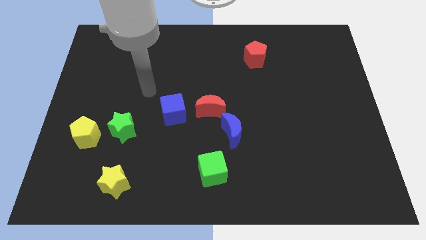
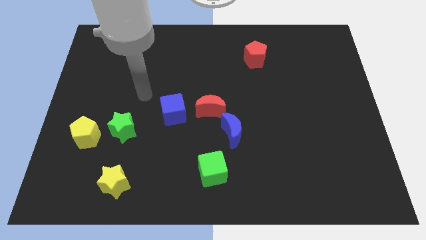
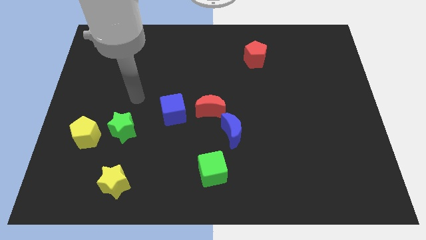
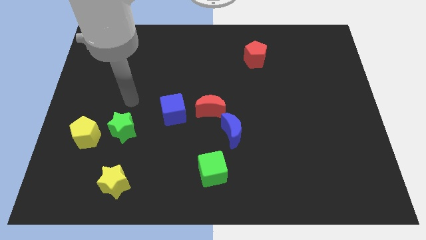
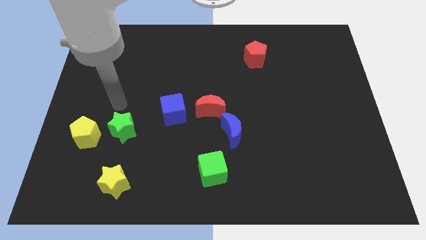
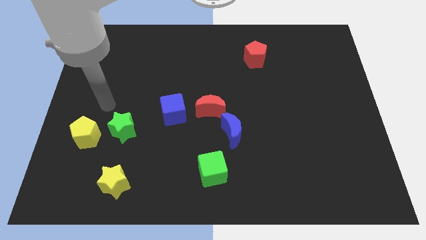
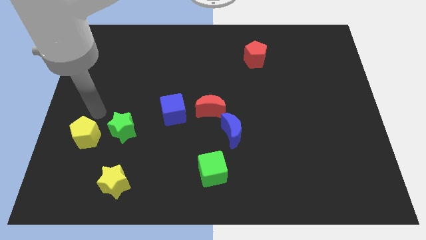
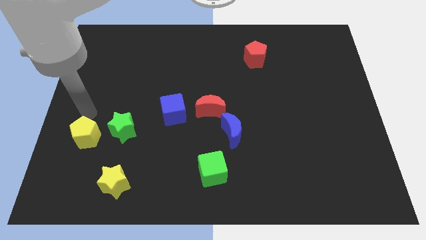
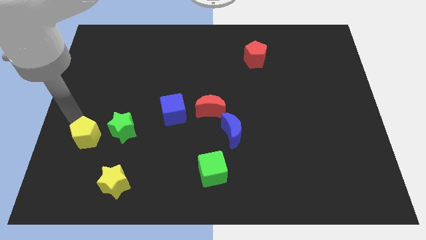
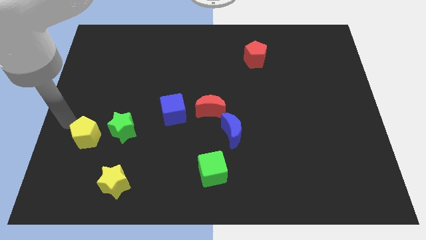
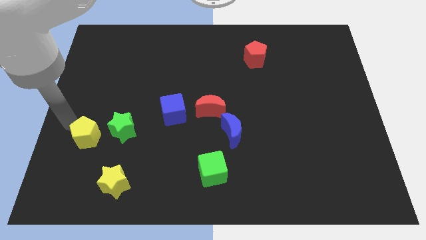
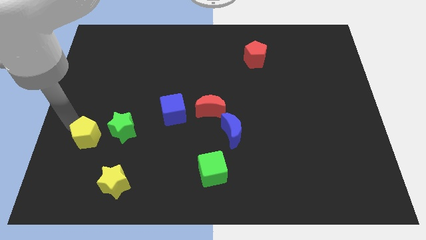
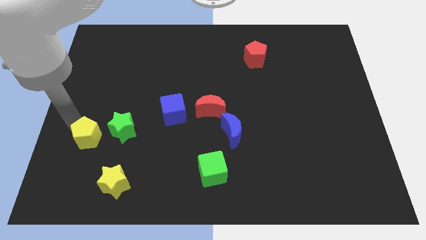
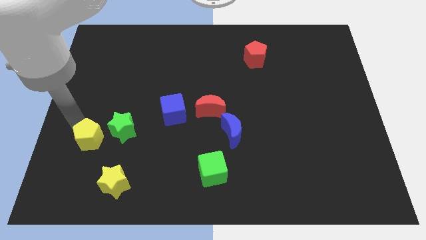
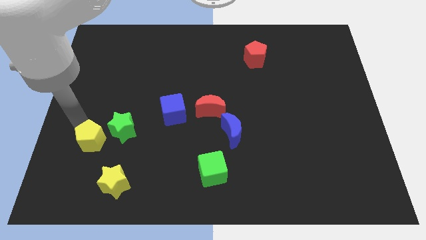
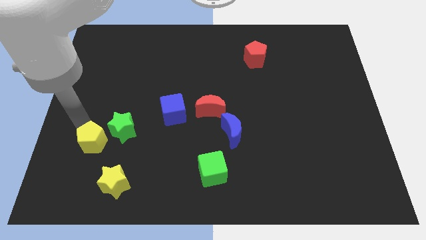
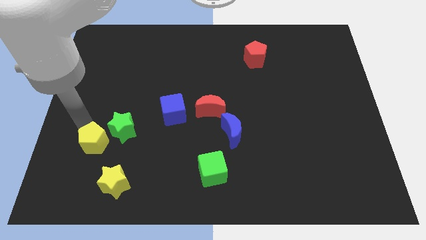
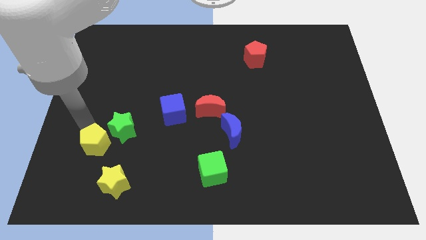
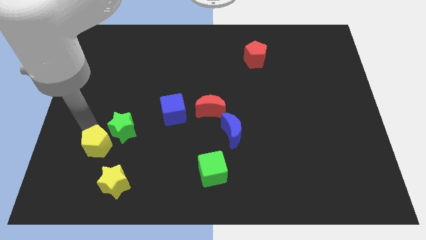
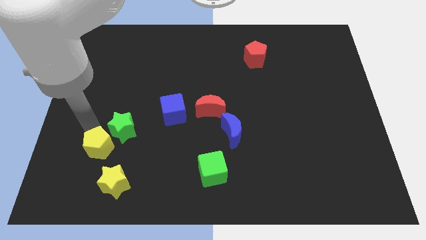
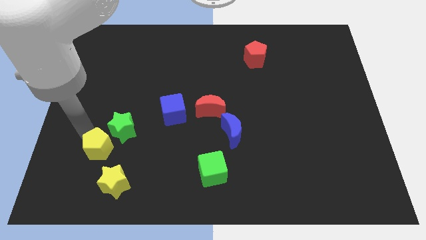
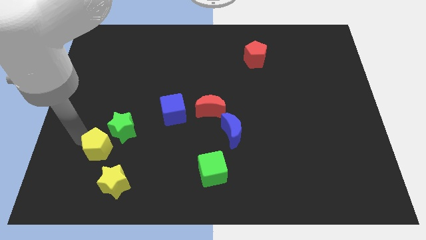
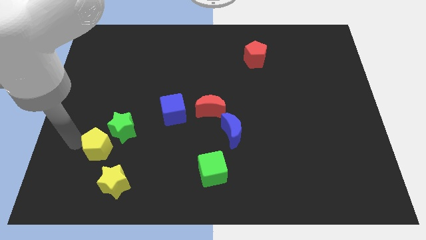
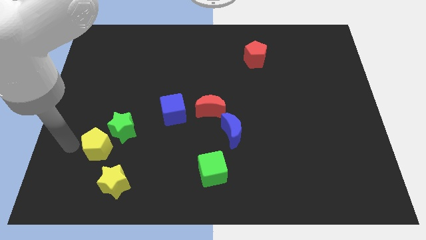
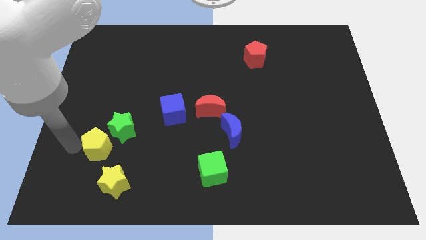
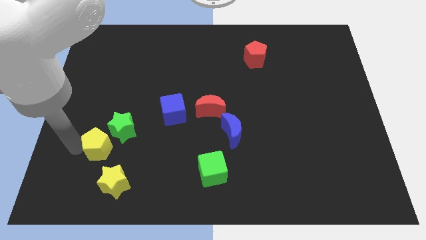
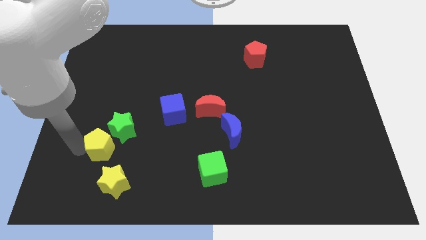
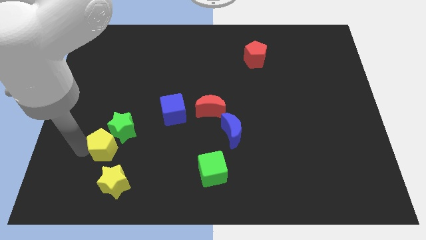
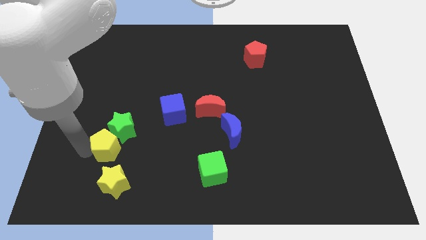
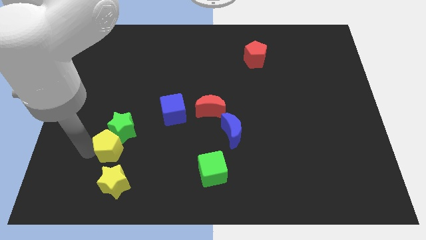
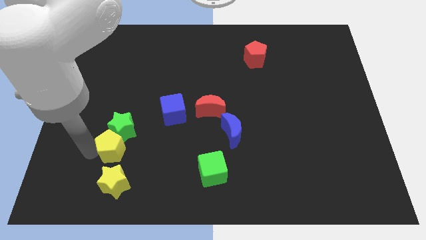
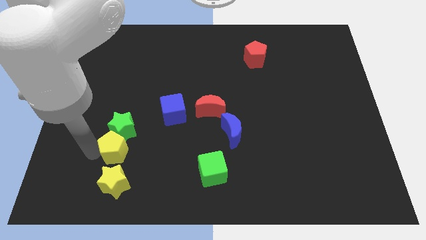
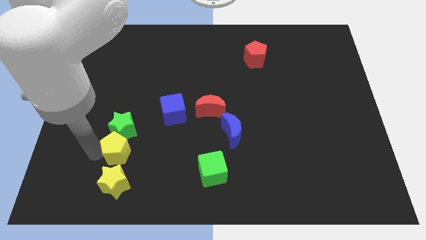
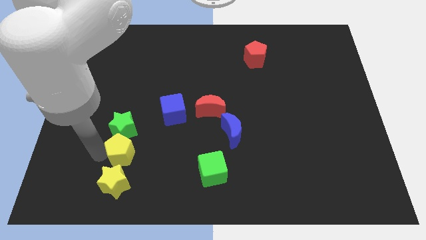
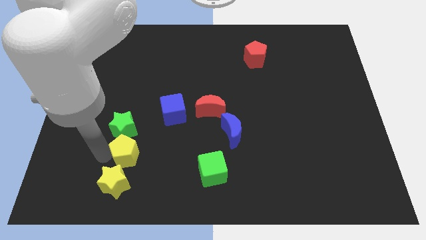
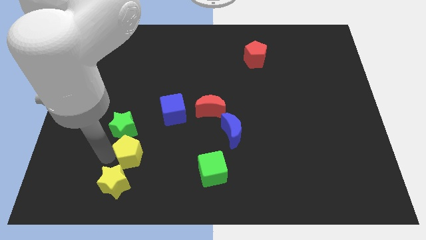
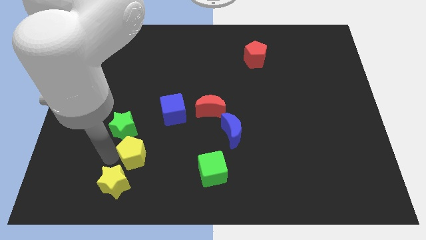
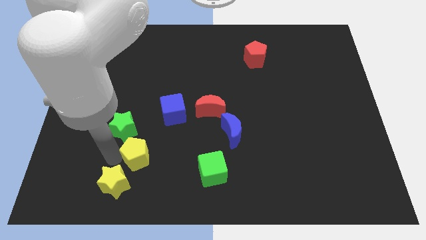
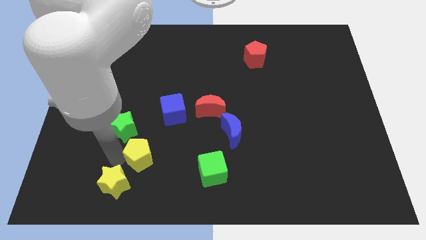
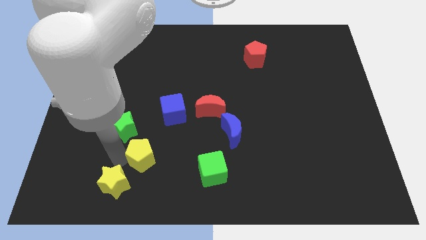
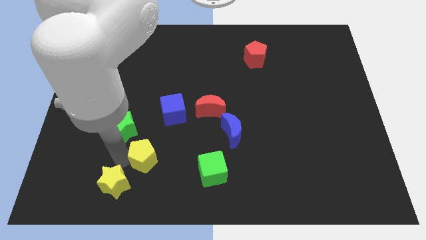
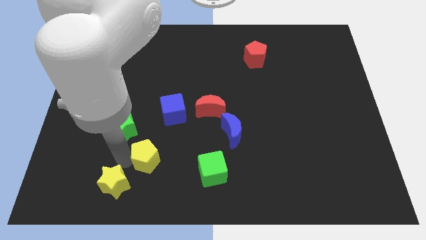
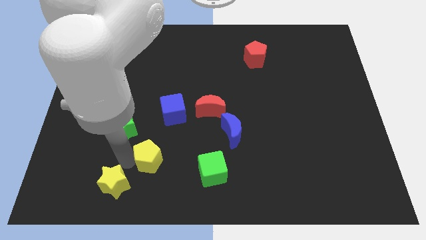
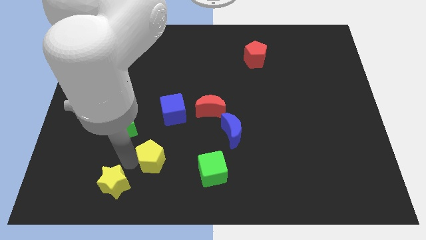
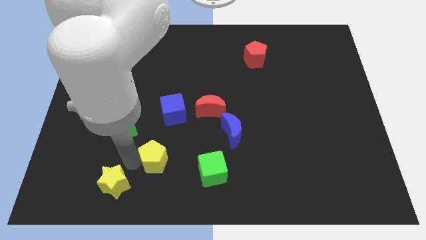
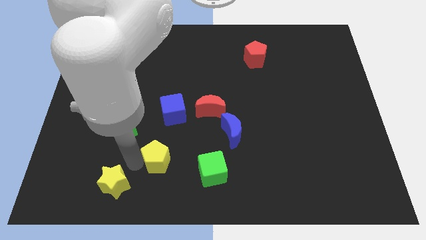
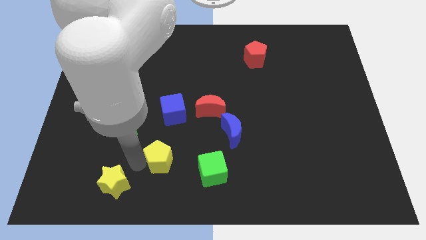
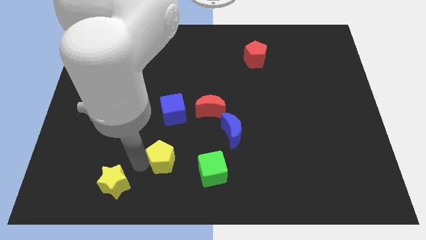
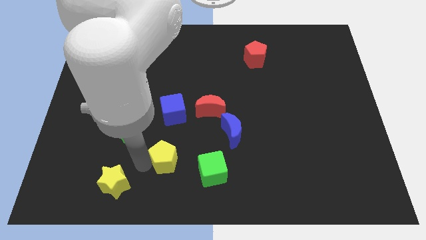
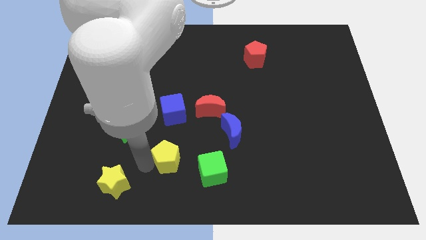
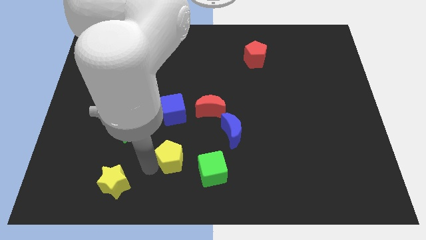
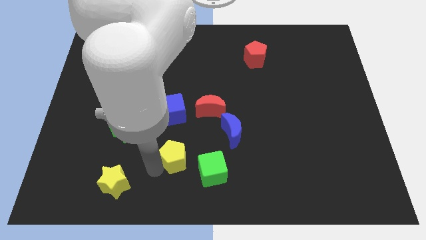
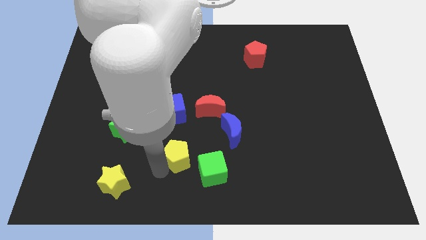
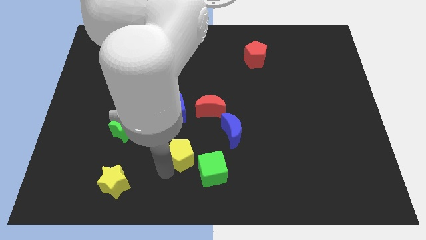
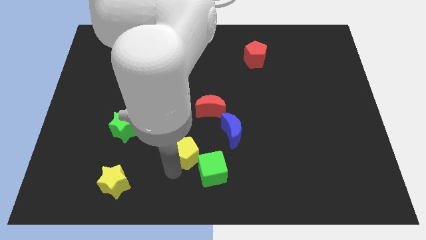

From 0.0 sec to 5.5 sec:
move the yellow pentagon to the bottom left side of the blue moon

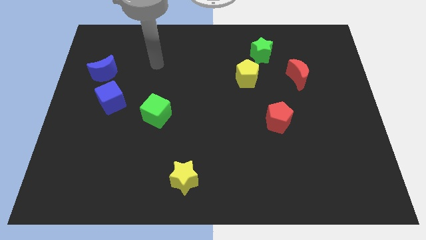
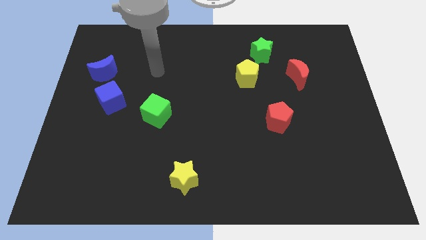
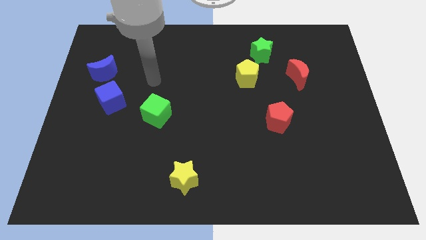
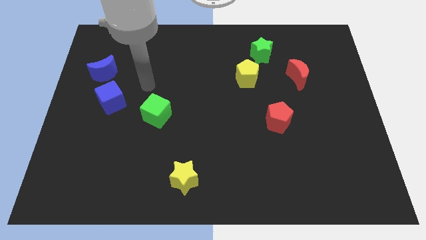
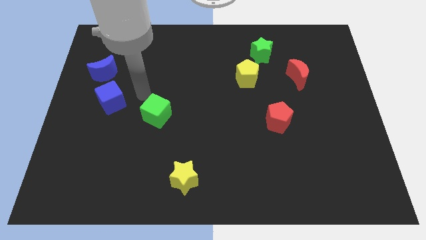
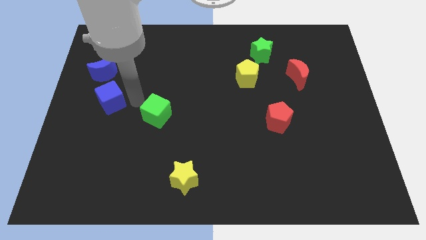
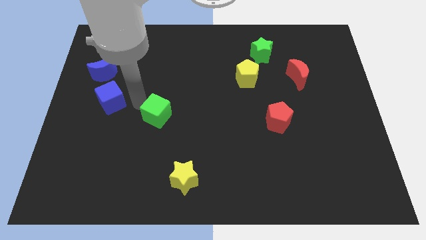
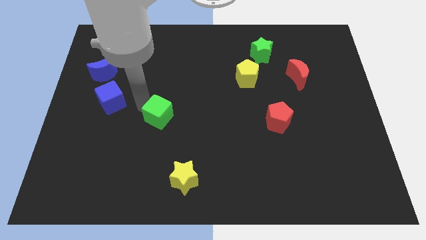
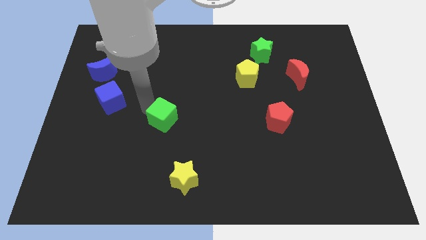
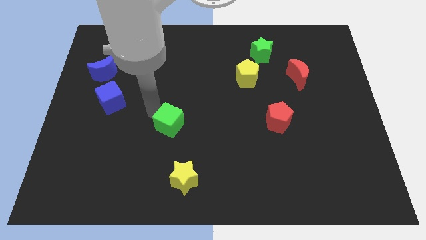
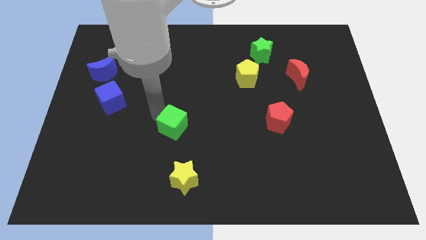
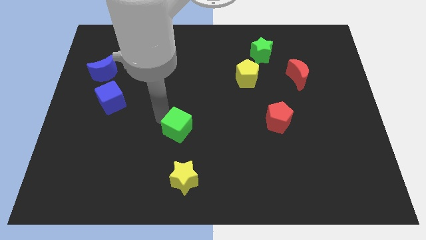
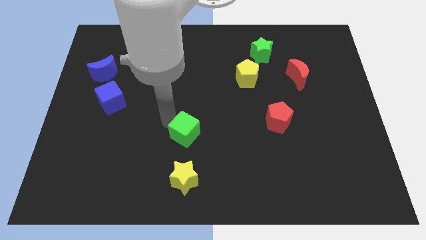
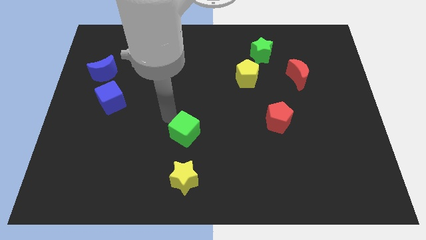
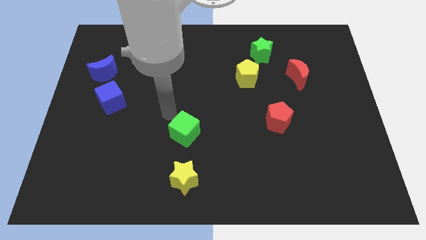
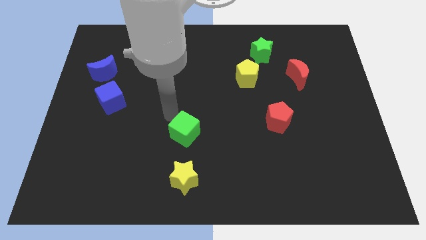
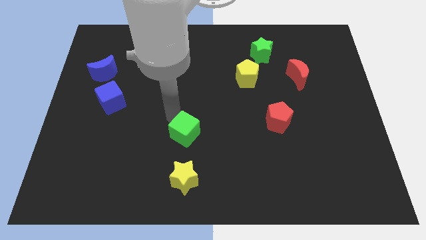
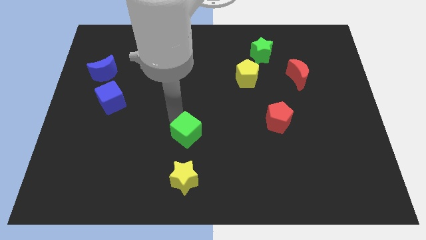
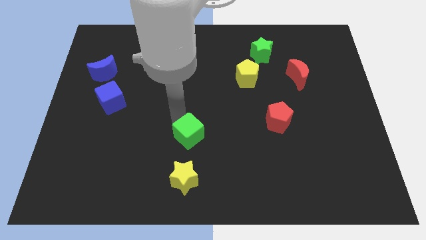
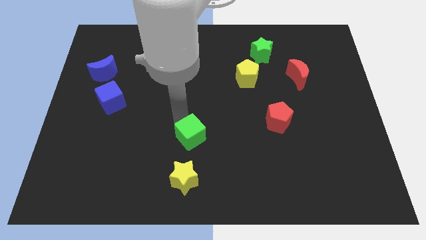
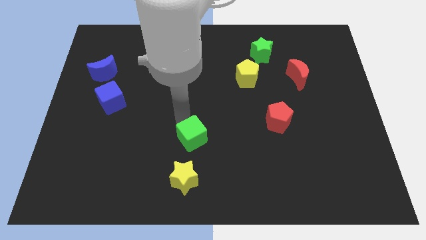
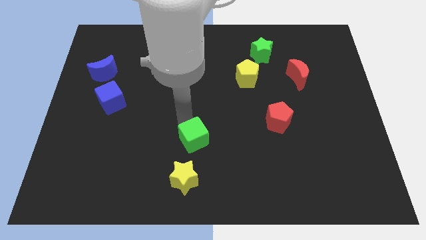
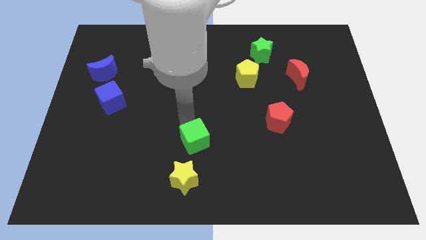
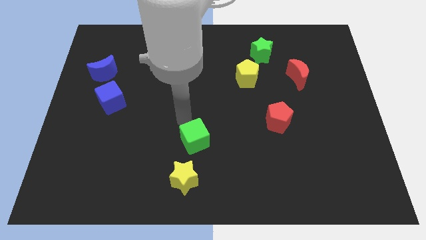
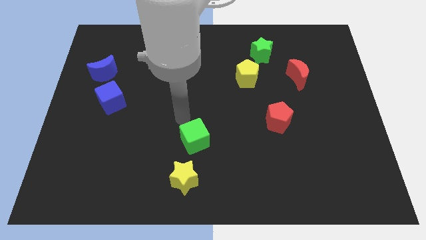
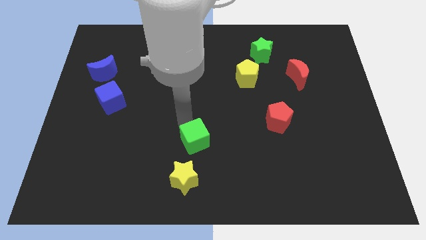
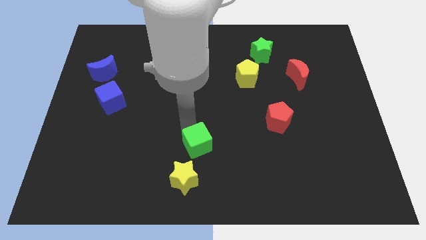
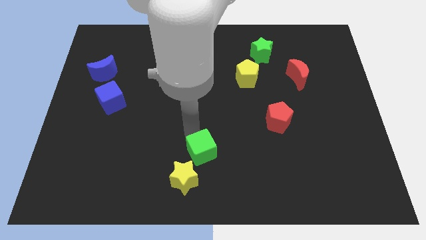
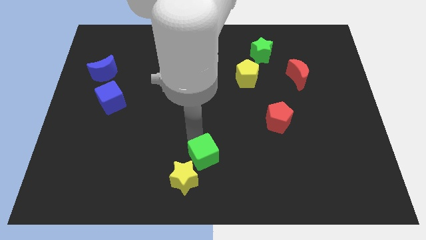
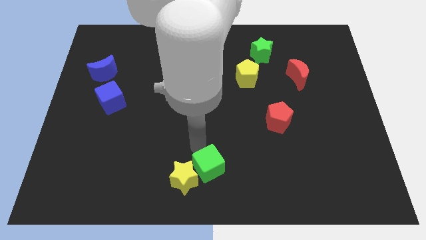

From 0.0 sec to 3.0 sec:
push the green cube just right of the yellow star
